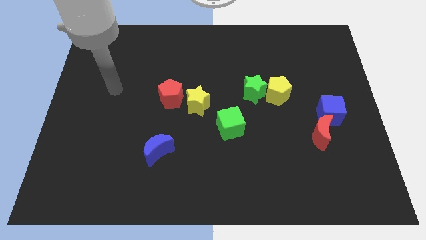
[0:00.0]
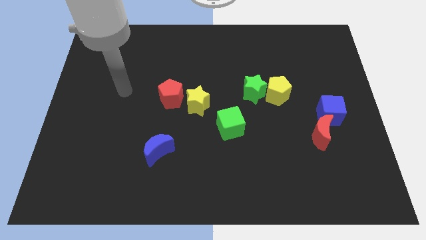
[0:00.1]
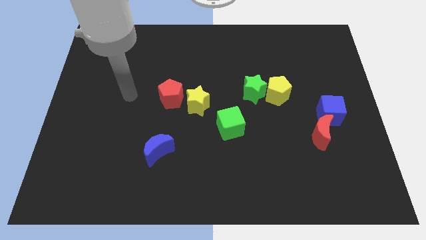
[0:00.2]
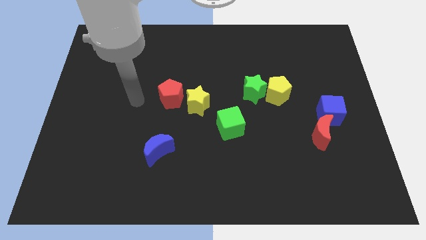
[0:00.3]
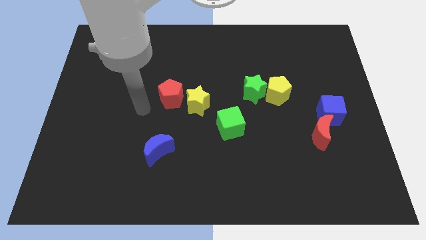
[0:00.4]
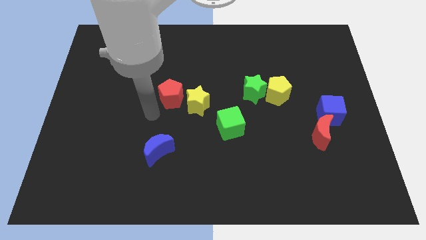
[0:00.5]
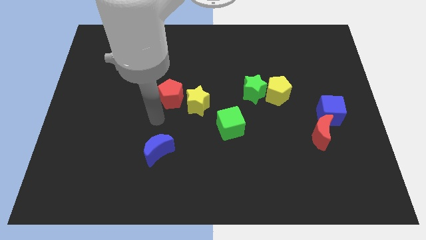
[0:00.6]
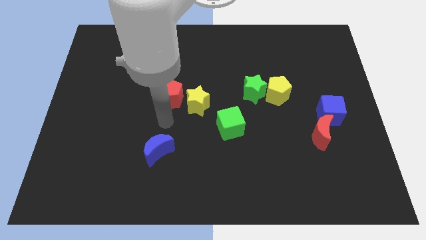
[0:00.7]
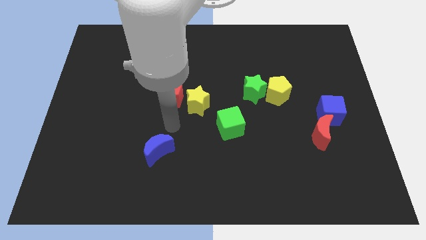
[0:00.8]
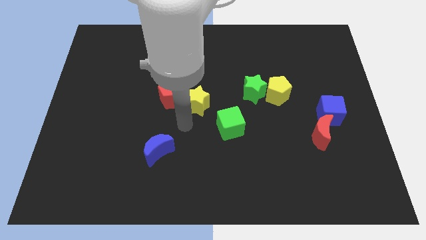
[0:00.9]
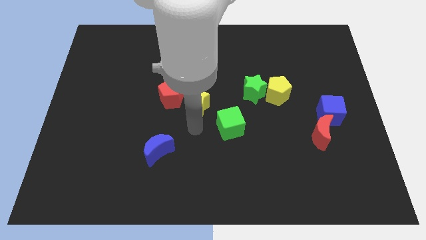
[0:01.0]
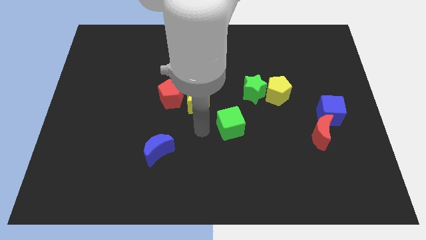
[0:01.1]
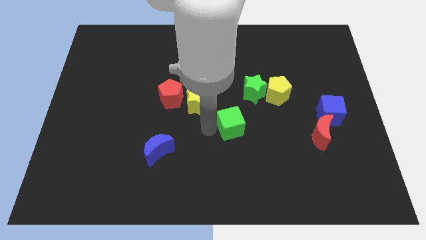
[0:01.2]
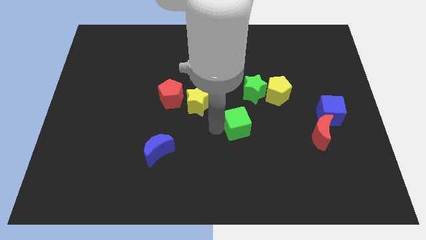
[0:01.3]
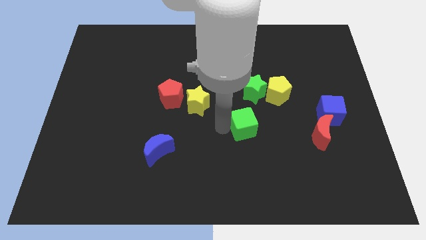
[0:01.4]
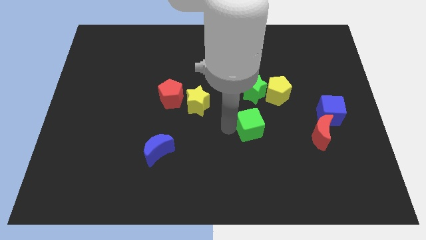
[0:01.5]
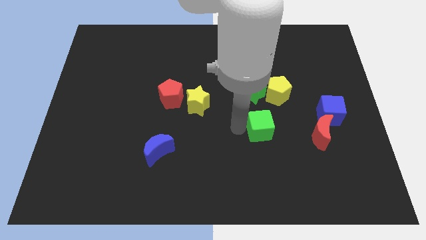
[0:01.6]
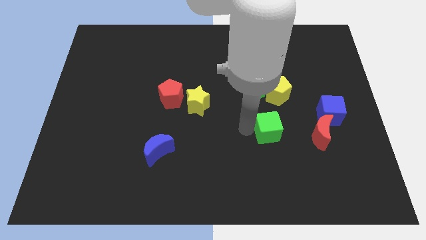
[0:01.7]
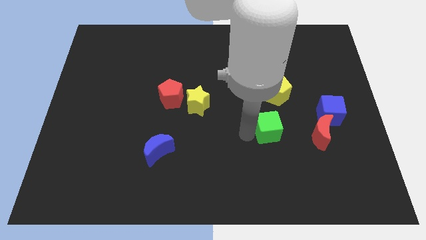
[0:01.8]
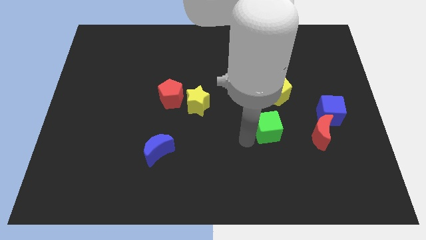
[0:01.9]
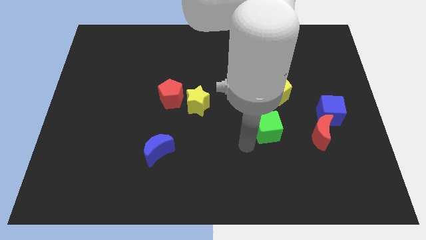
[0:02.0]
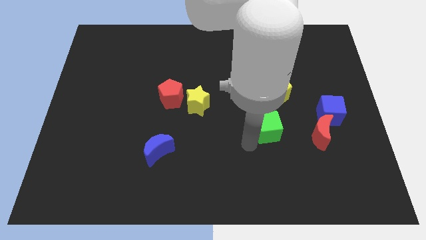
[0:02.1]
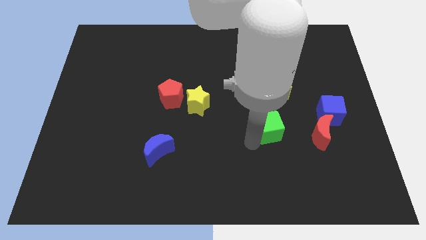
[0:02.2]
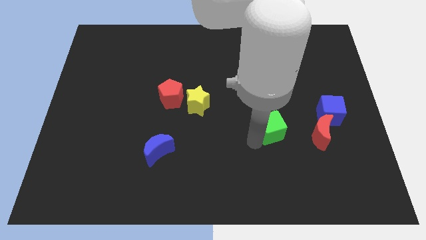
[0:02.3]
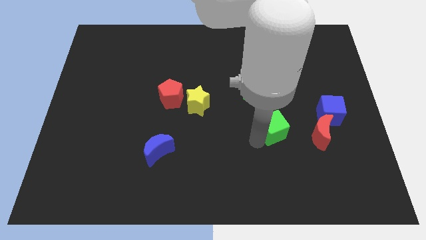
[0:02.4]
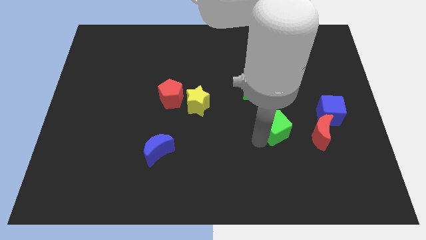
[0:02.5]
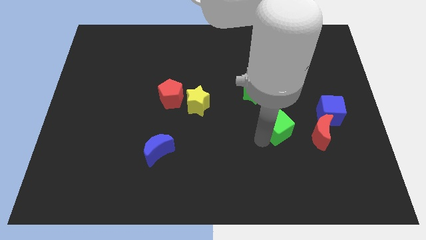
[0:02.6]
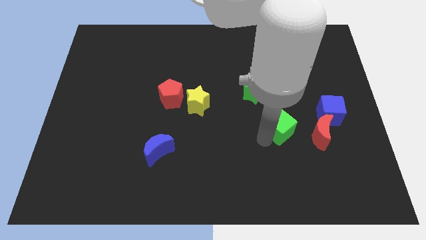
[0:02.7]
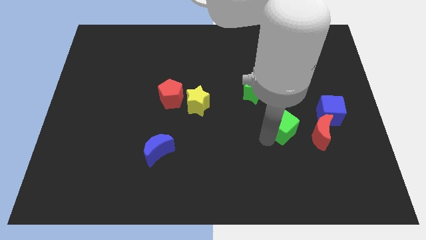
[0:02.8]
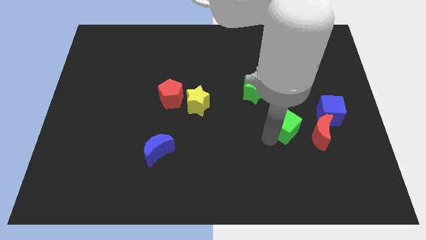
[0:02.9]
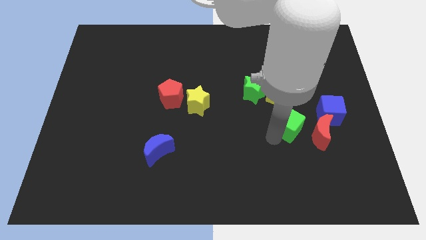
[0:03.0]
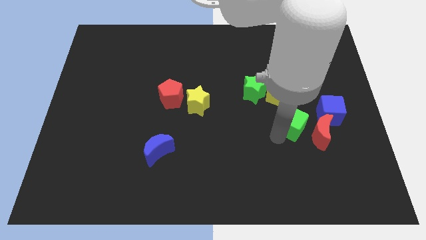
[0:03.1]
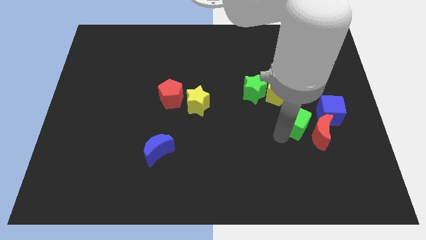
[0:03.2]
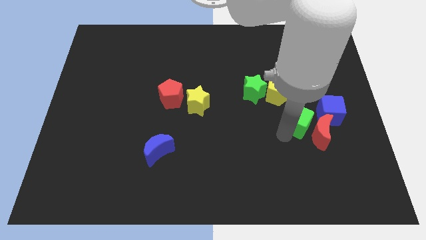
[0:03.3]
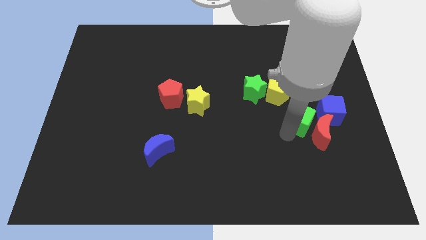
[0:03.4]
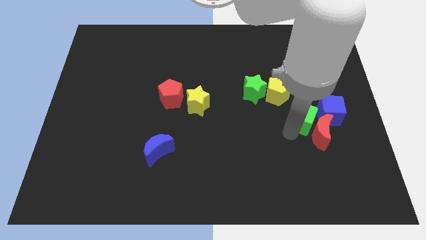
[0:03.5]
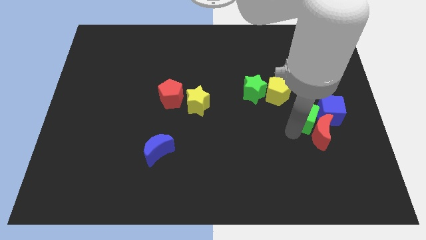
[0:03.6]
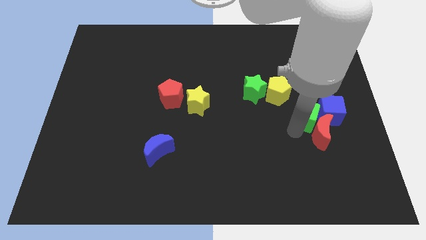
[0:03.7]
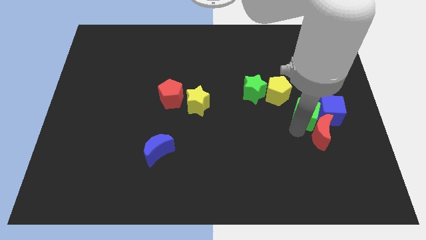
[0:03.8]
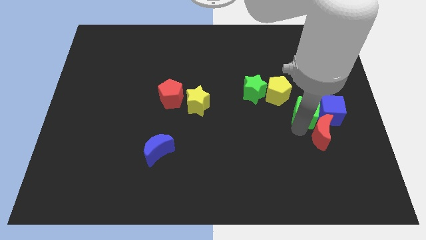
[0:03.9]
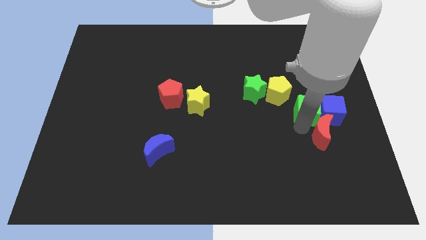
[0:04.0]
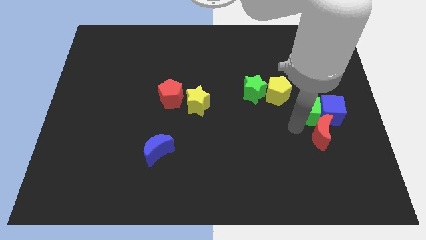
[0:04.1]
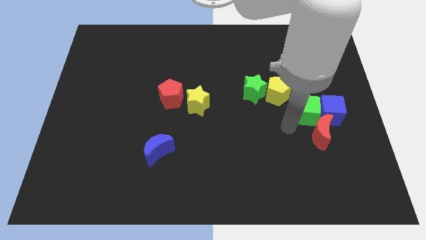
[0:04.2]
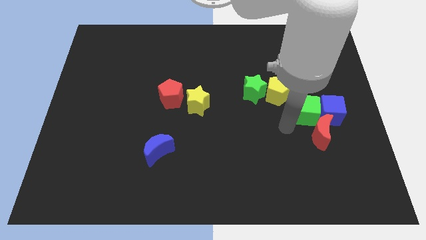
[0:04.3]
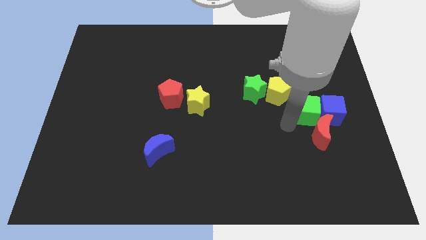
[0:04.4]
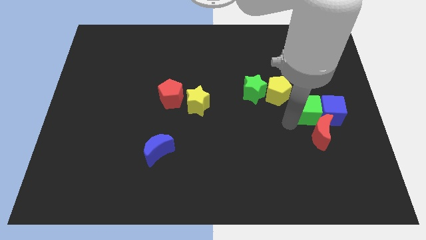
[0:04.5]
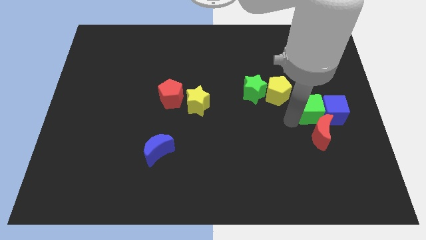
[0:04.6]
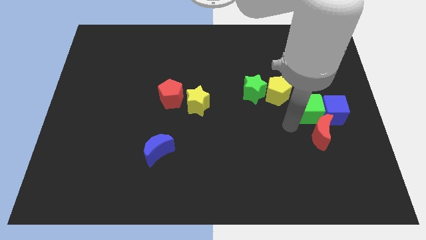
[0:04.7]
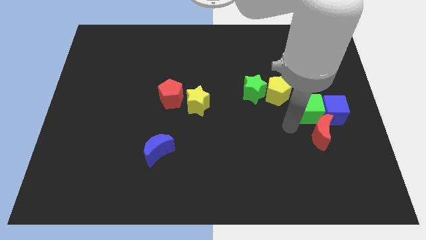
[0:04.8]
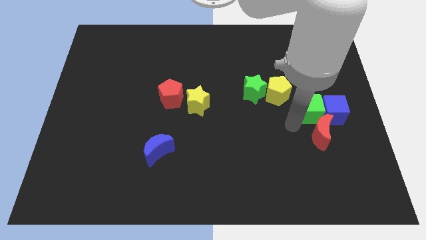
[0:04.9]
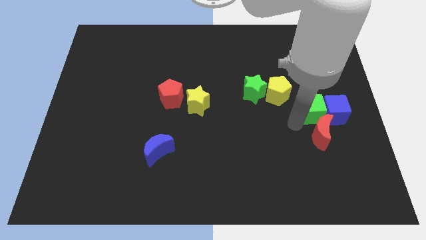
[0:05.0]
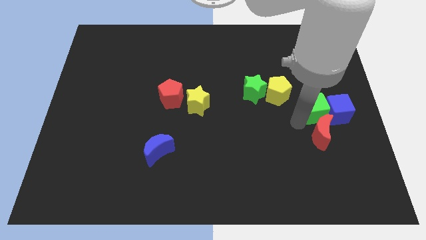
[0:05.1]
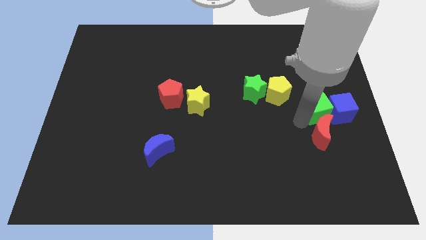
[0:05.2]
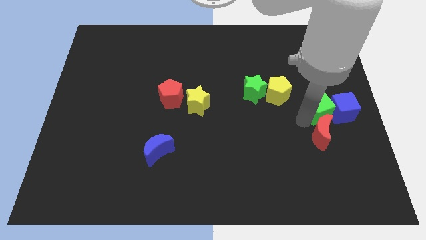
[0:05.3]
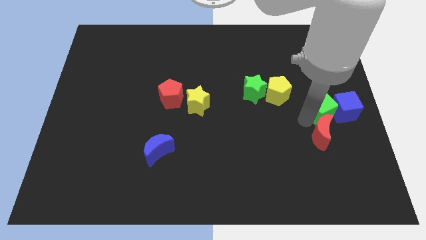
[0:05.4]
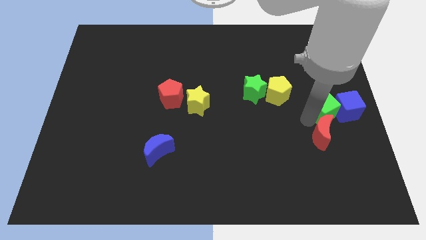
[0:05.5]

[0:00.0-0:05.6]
push the green cube to the right side

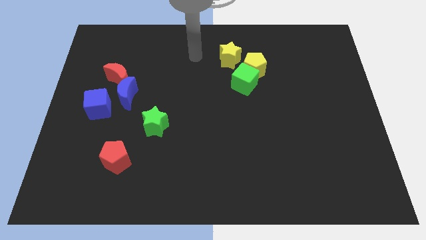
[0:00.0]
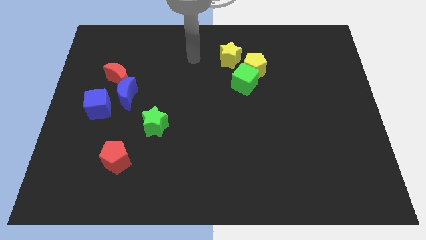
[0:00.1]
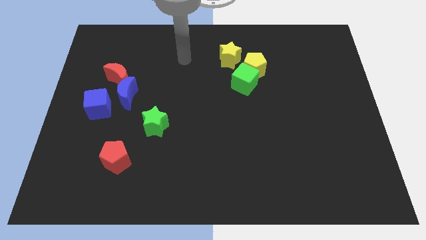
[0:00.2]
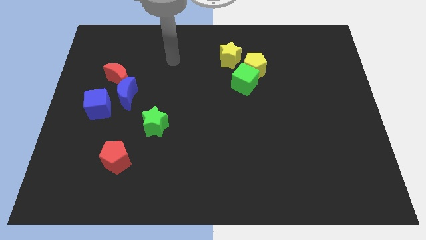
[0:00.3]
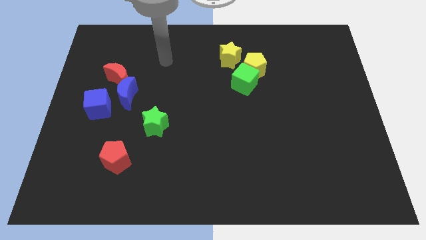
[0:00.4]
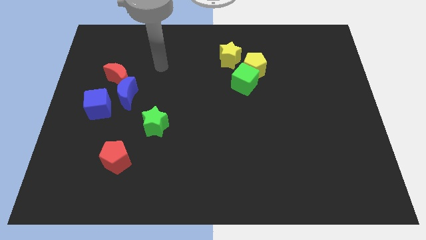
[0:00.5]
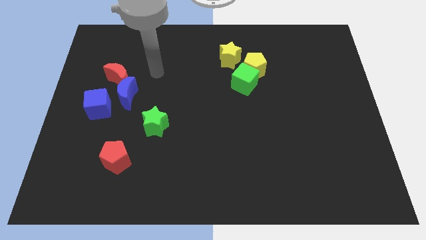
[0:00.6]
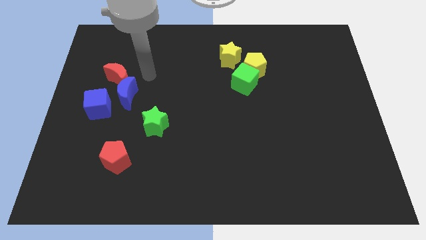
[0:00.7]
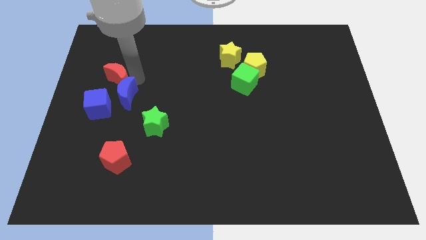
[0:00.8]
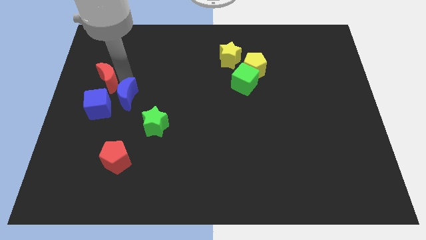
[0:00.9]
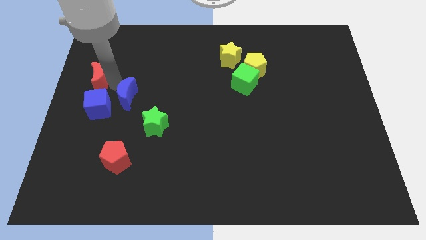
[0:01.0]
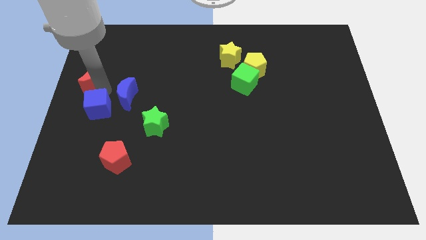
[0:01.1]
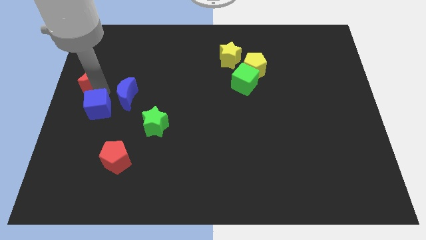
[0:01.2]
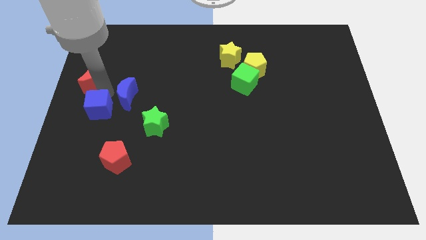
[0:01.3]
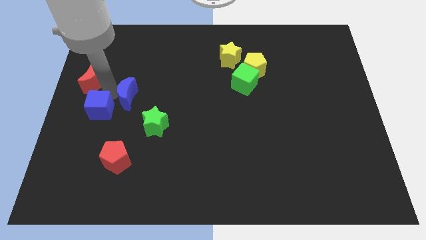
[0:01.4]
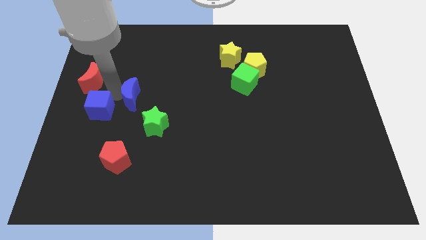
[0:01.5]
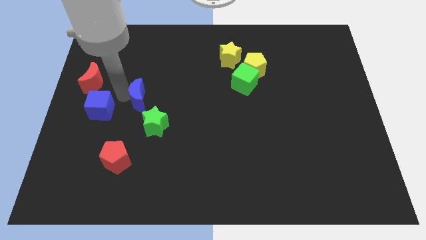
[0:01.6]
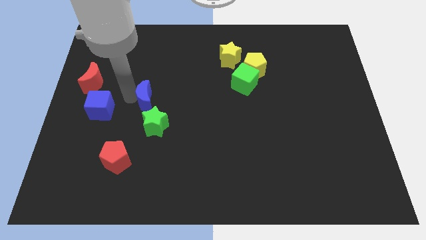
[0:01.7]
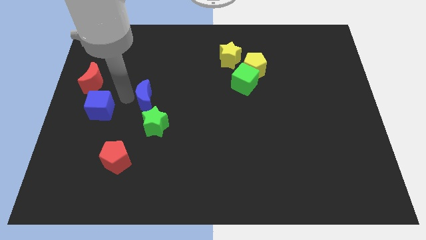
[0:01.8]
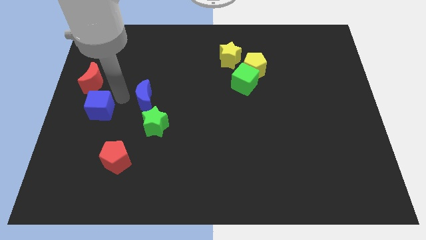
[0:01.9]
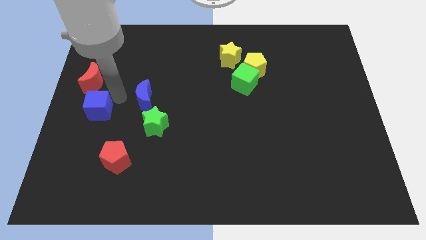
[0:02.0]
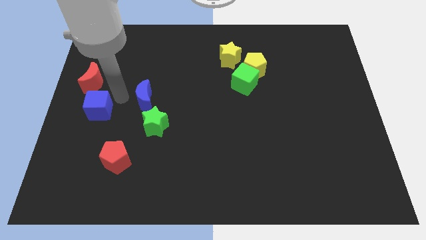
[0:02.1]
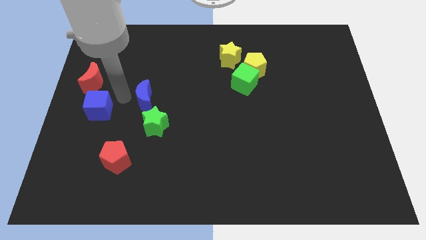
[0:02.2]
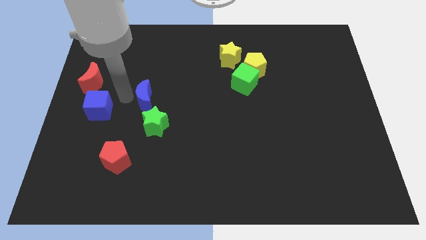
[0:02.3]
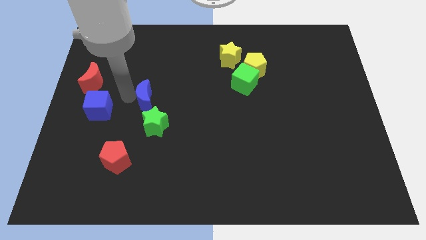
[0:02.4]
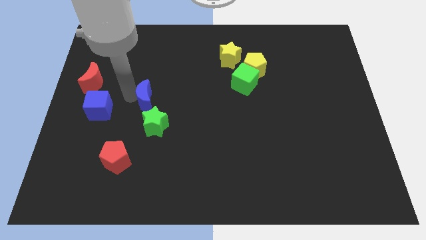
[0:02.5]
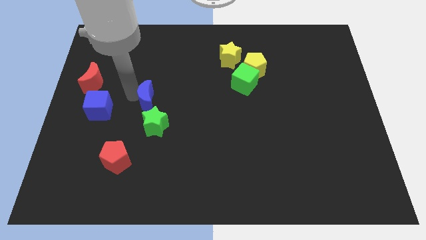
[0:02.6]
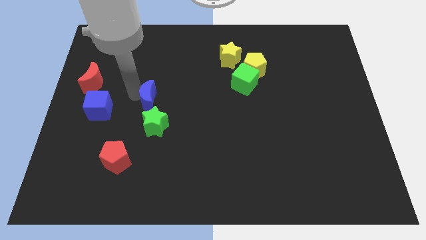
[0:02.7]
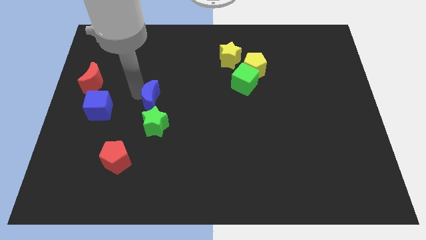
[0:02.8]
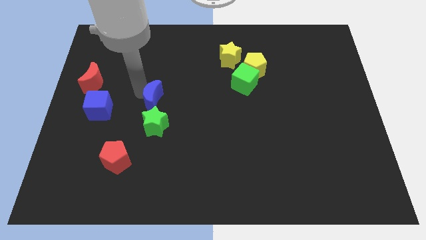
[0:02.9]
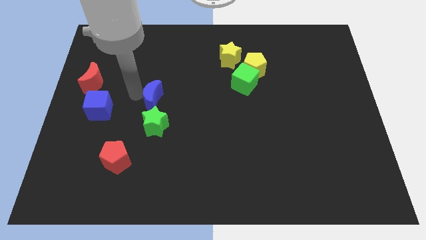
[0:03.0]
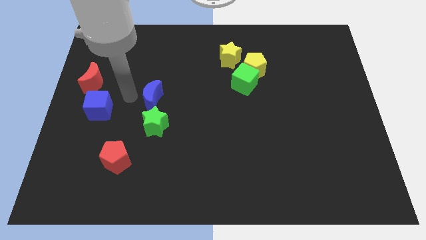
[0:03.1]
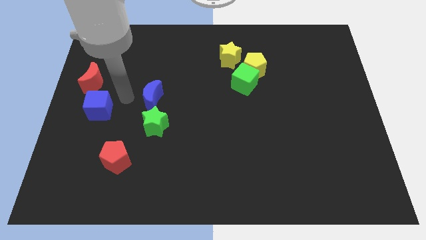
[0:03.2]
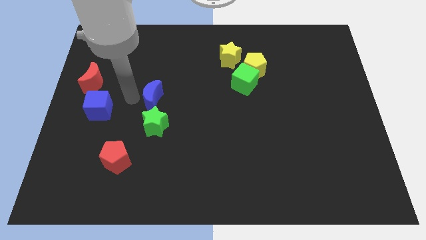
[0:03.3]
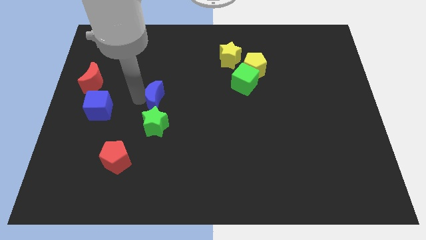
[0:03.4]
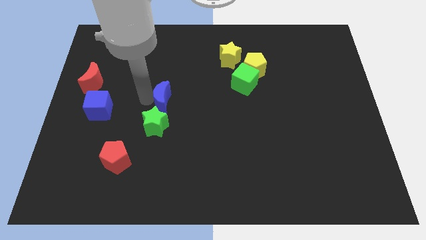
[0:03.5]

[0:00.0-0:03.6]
move the blue moon to the middle
